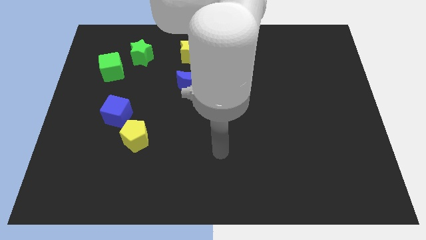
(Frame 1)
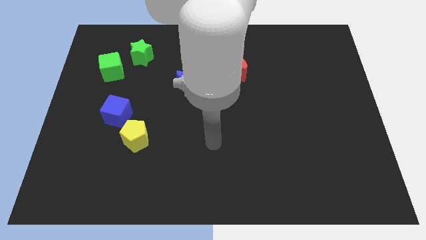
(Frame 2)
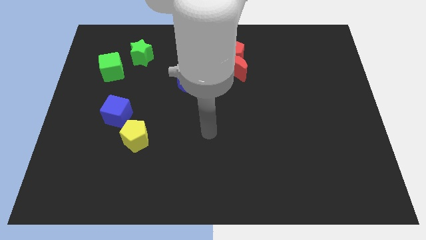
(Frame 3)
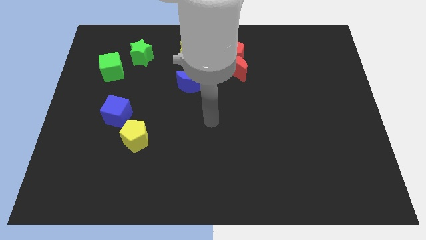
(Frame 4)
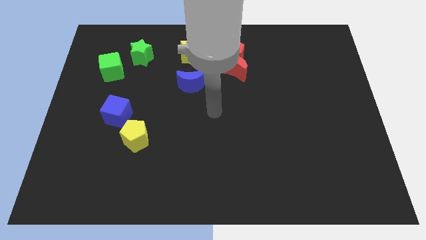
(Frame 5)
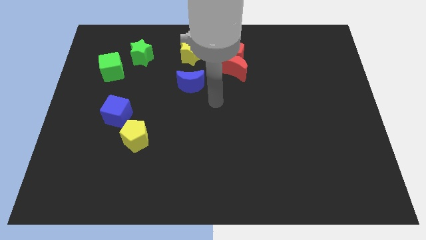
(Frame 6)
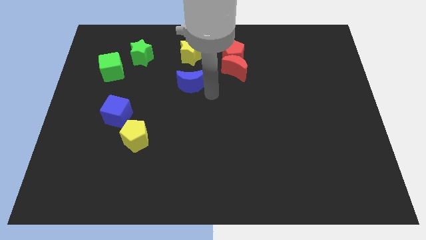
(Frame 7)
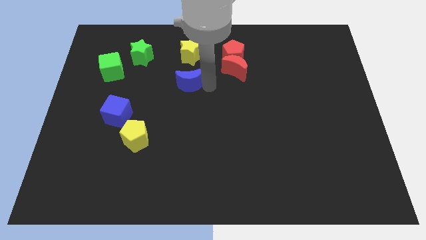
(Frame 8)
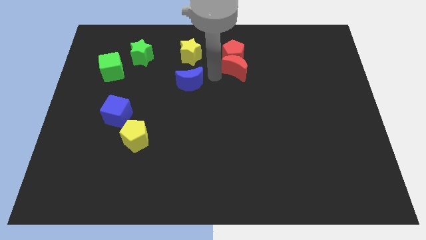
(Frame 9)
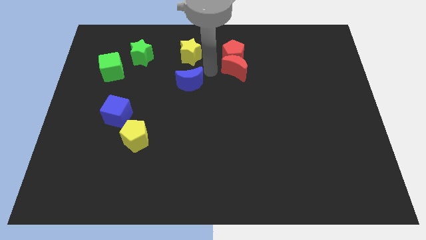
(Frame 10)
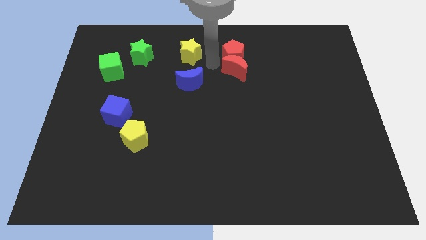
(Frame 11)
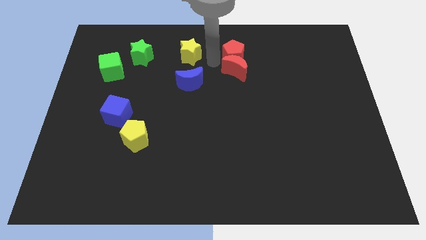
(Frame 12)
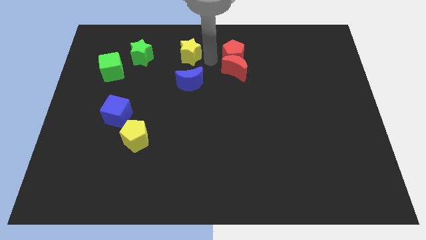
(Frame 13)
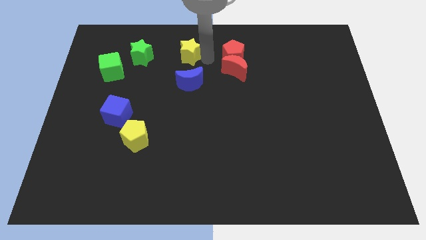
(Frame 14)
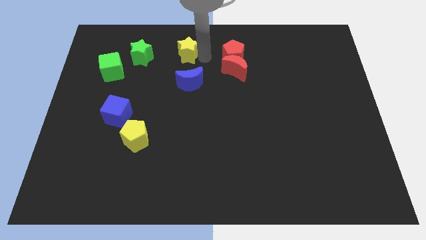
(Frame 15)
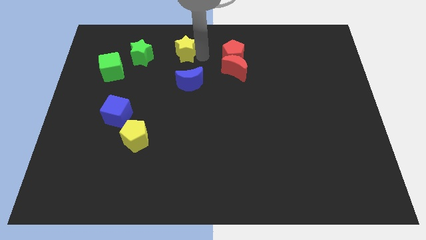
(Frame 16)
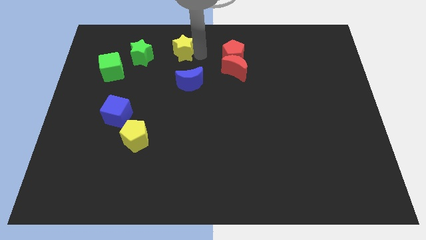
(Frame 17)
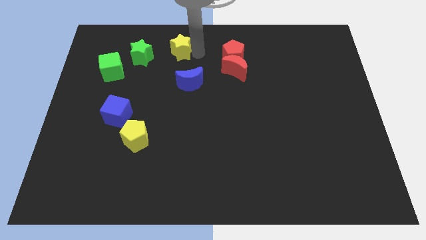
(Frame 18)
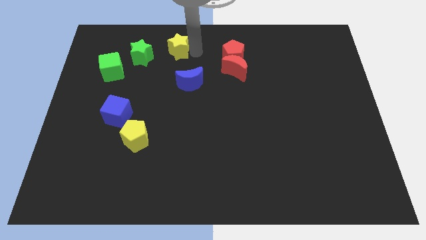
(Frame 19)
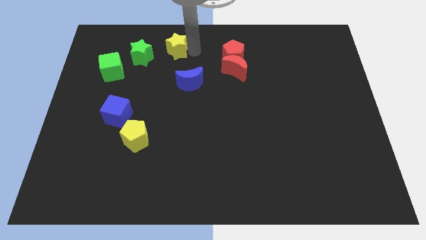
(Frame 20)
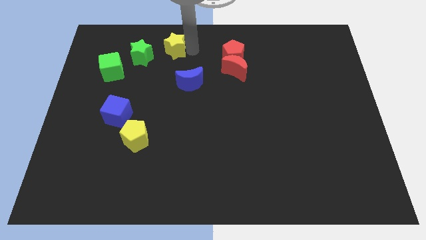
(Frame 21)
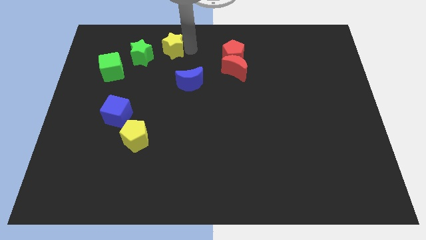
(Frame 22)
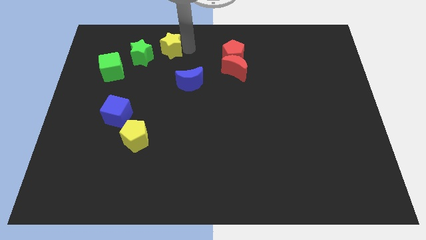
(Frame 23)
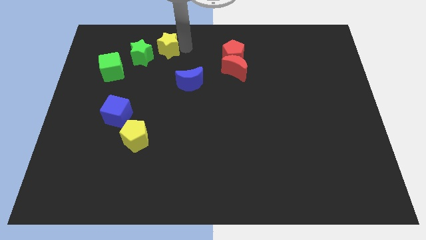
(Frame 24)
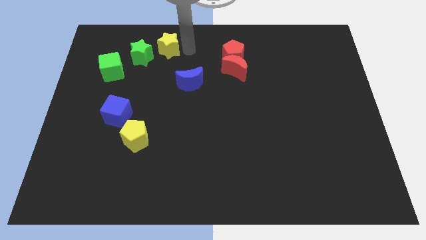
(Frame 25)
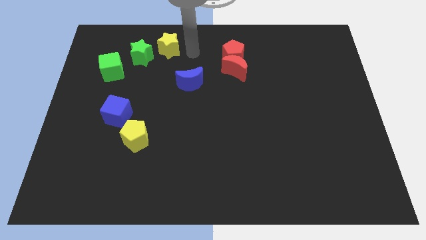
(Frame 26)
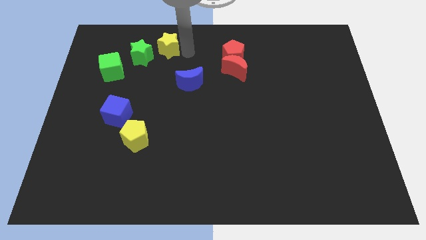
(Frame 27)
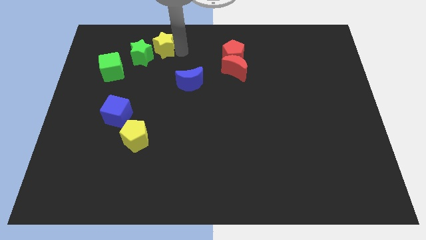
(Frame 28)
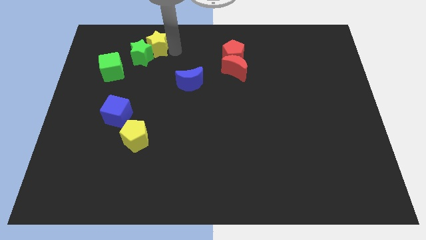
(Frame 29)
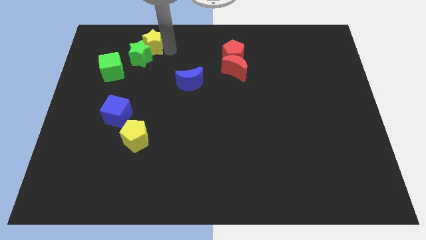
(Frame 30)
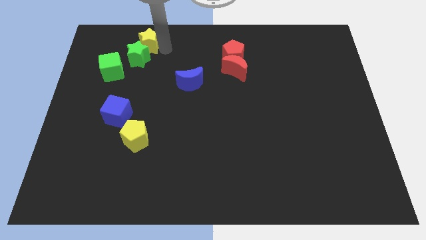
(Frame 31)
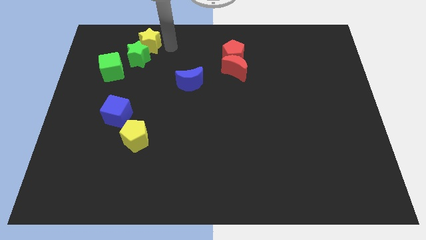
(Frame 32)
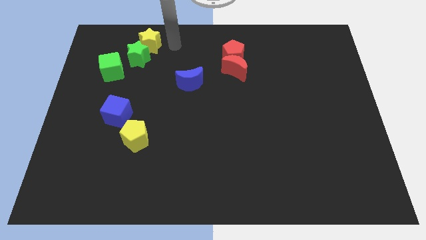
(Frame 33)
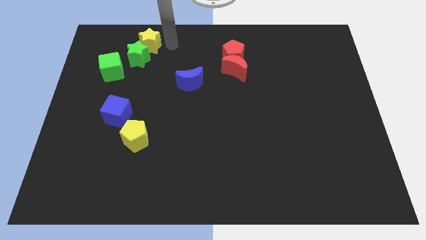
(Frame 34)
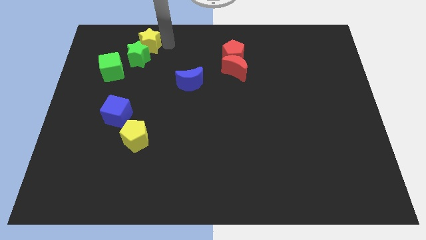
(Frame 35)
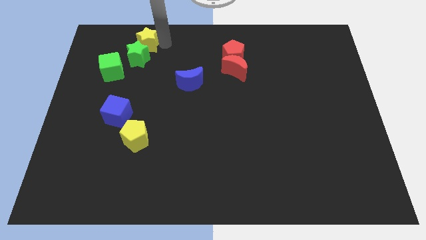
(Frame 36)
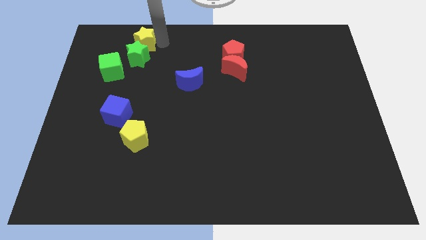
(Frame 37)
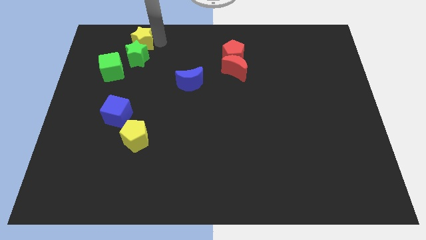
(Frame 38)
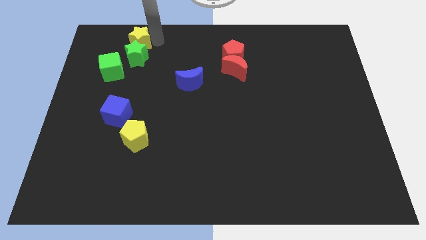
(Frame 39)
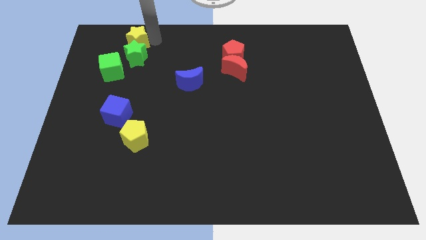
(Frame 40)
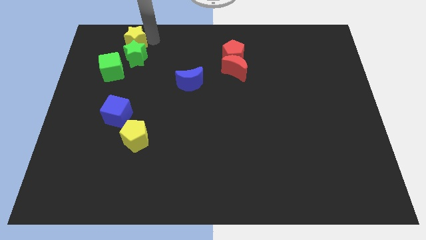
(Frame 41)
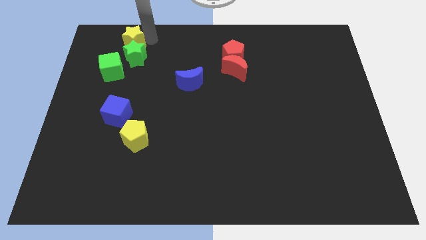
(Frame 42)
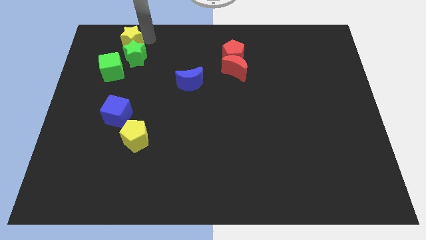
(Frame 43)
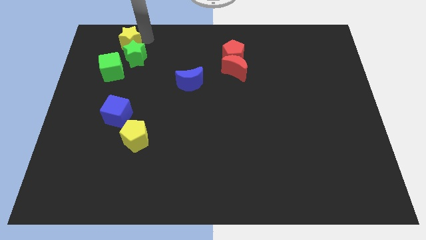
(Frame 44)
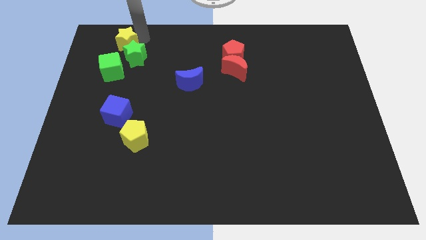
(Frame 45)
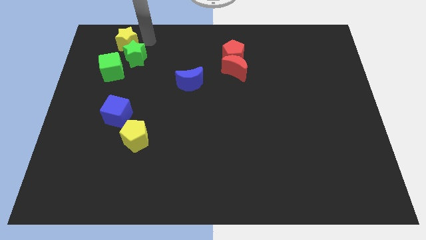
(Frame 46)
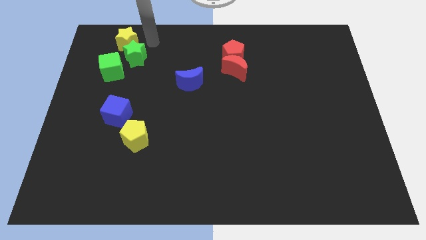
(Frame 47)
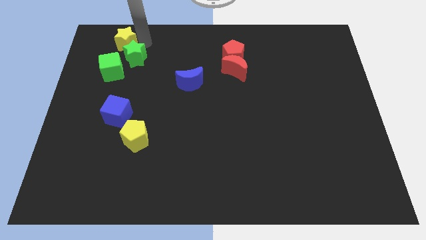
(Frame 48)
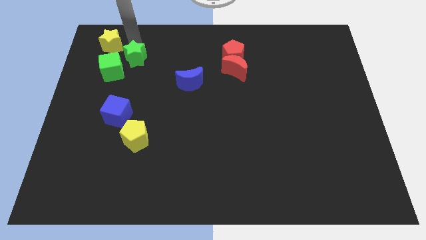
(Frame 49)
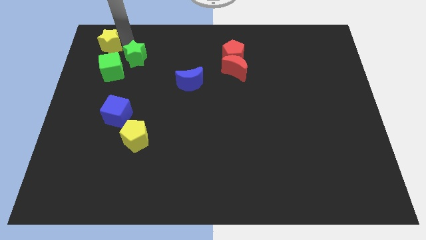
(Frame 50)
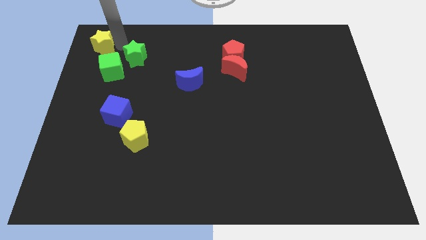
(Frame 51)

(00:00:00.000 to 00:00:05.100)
move the yellow star to the top left of the board

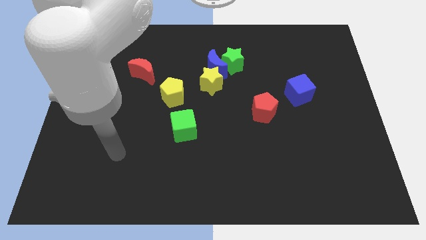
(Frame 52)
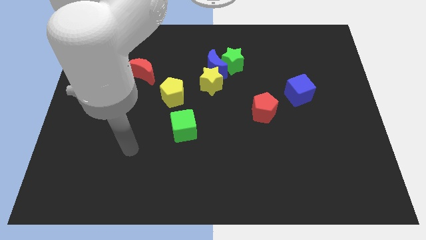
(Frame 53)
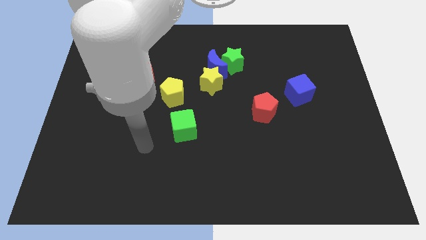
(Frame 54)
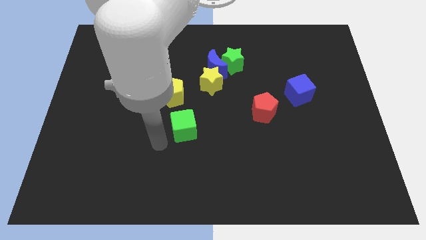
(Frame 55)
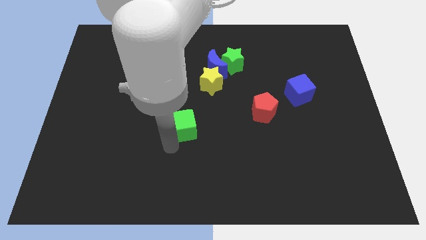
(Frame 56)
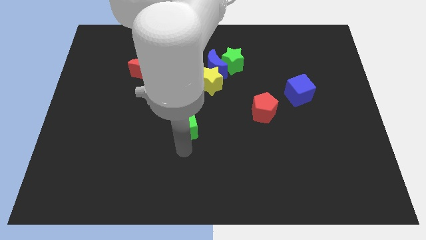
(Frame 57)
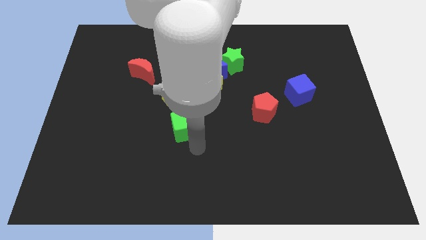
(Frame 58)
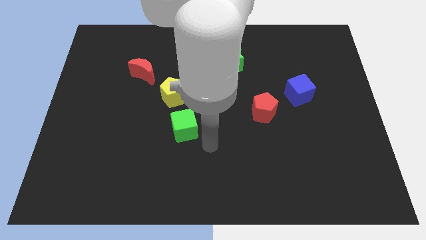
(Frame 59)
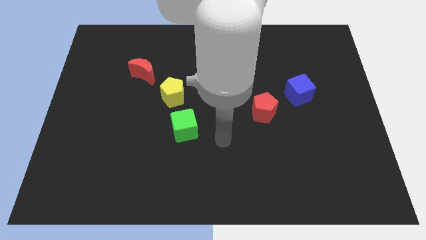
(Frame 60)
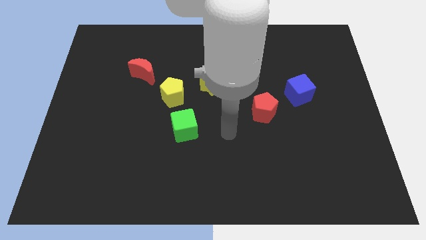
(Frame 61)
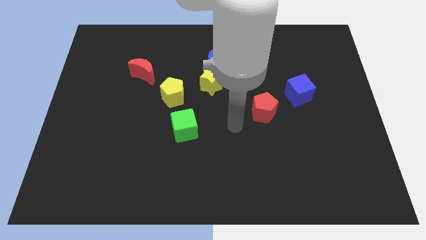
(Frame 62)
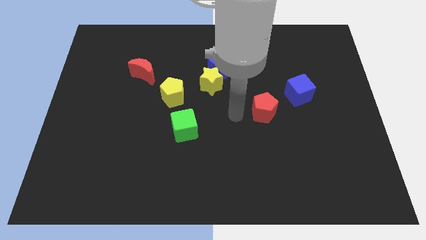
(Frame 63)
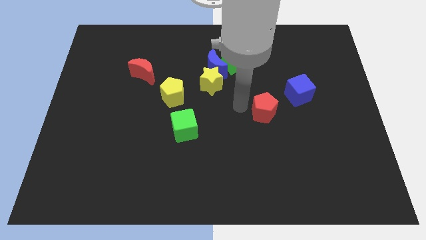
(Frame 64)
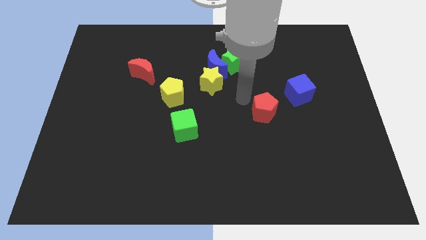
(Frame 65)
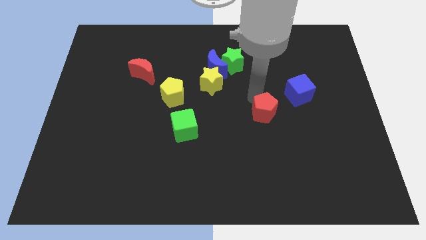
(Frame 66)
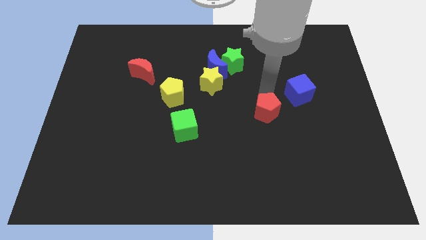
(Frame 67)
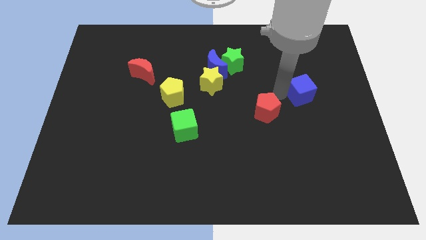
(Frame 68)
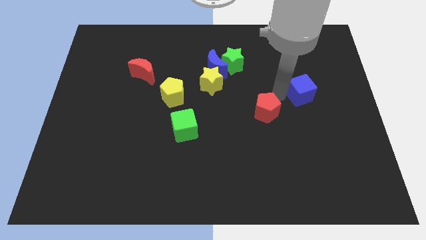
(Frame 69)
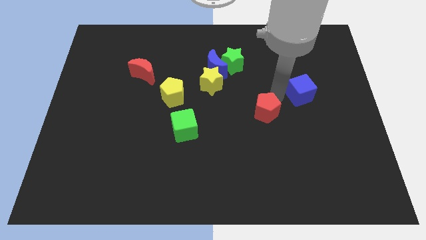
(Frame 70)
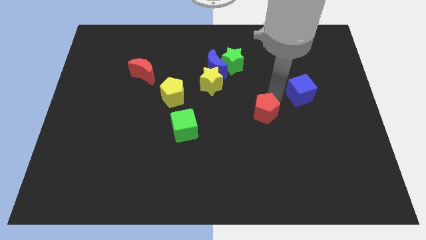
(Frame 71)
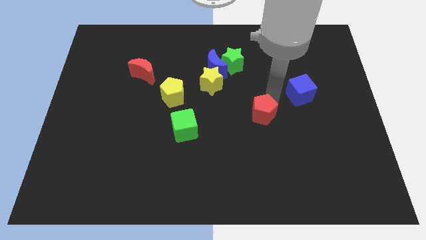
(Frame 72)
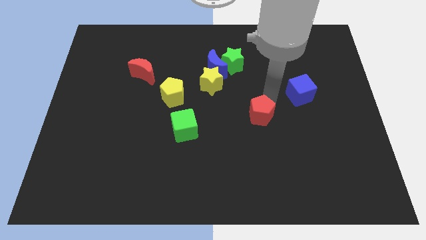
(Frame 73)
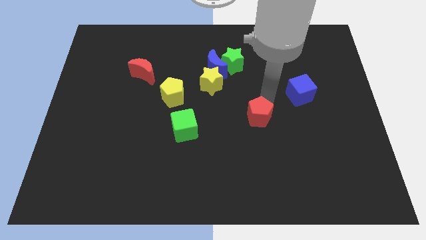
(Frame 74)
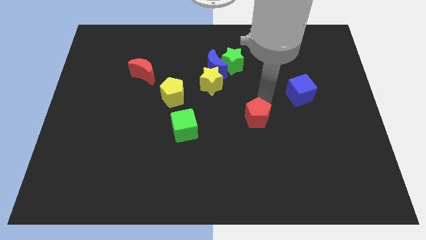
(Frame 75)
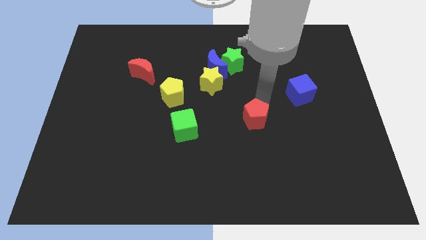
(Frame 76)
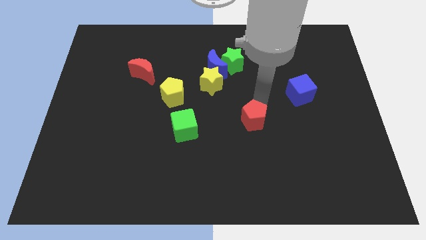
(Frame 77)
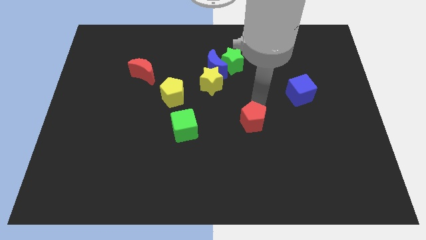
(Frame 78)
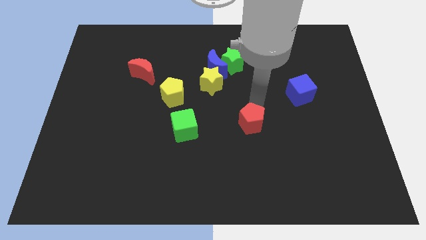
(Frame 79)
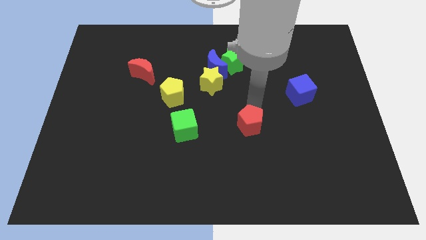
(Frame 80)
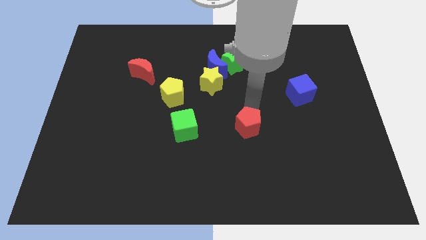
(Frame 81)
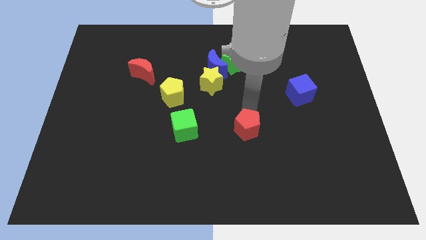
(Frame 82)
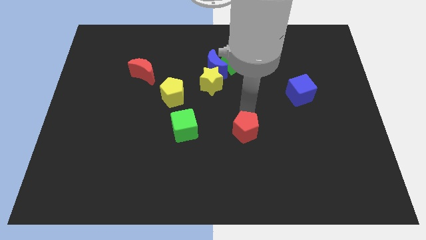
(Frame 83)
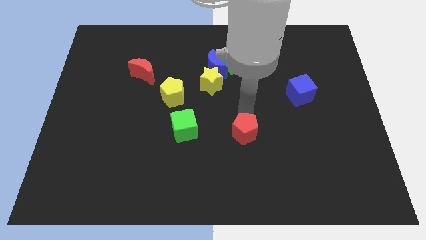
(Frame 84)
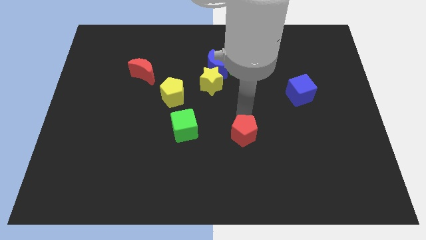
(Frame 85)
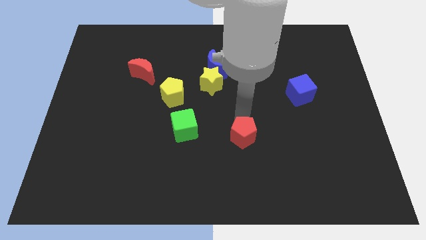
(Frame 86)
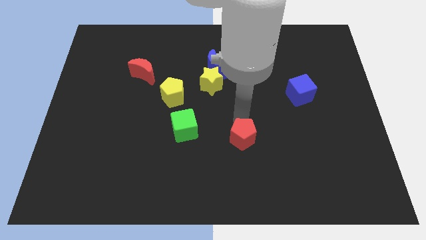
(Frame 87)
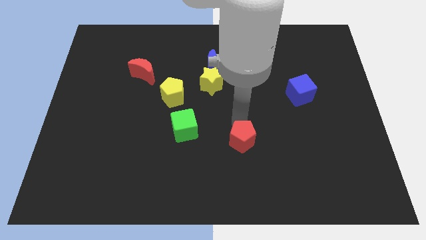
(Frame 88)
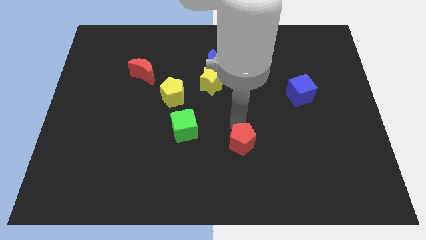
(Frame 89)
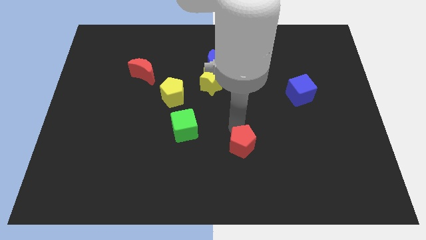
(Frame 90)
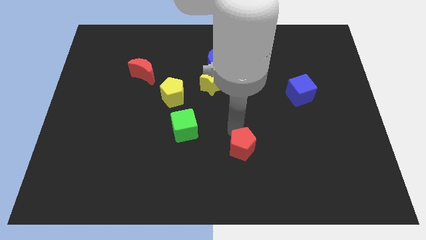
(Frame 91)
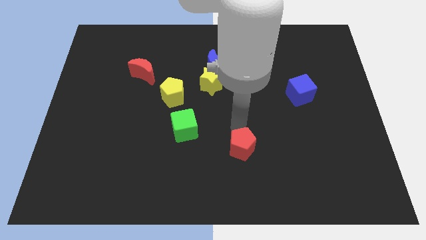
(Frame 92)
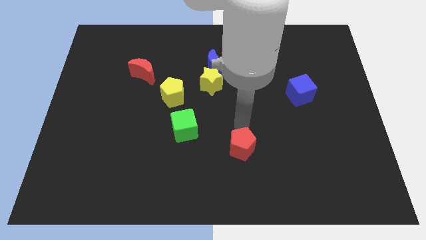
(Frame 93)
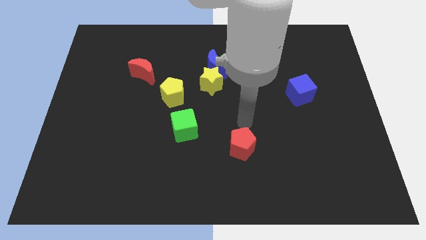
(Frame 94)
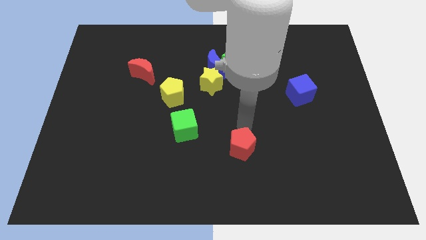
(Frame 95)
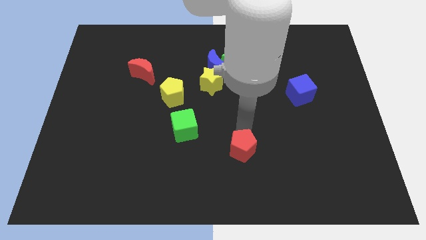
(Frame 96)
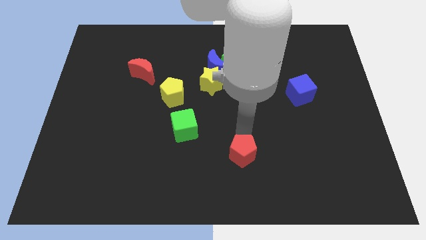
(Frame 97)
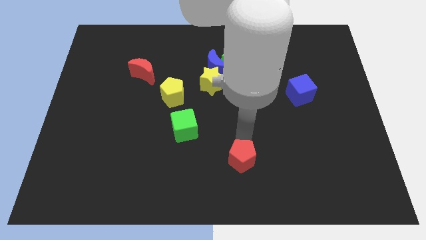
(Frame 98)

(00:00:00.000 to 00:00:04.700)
push the red pentagon to the bottom side
